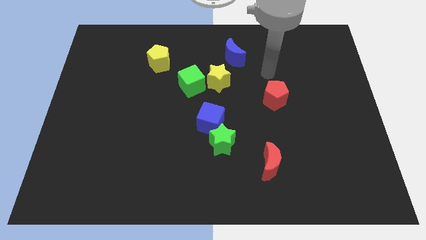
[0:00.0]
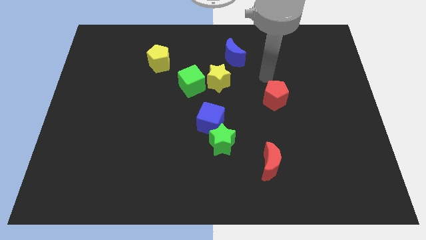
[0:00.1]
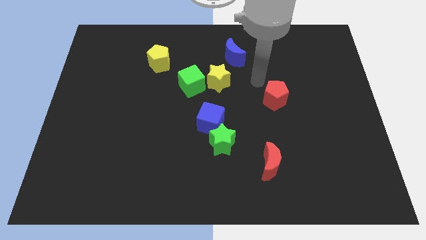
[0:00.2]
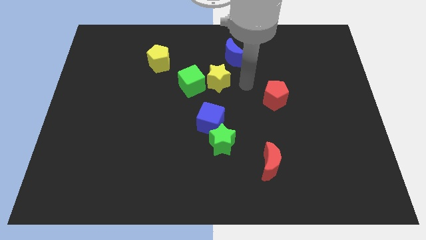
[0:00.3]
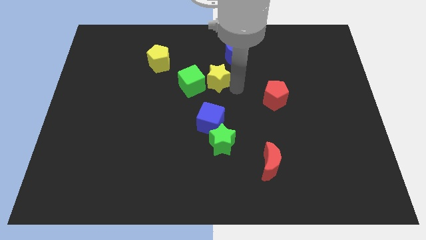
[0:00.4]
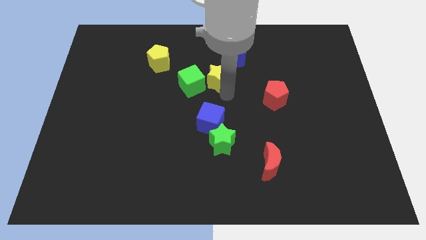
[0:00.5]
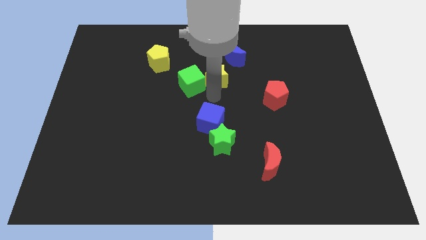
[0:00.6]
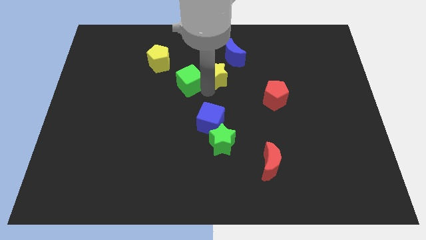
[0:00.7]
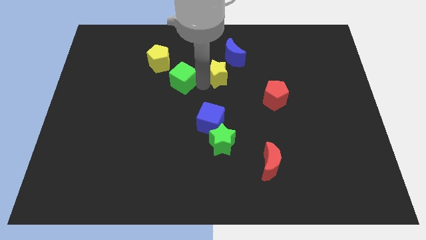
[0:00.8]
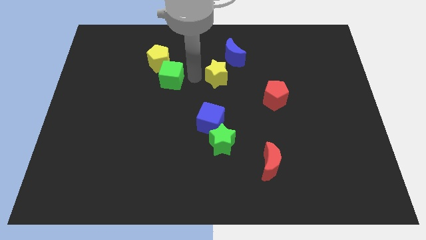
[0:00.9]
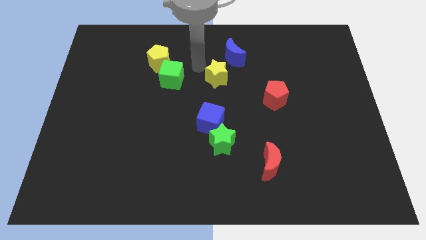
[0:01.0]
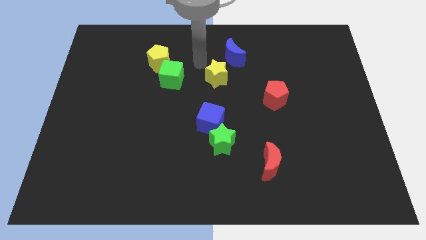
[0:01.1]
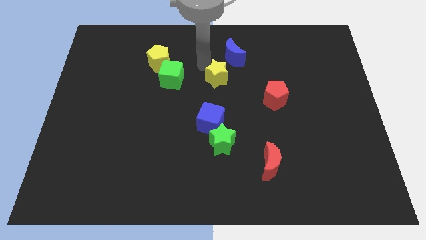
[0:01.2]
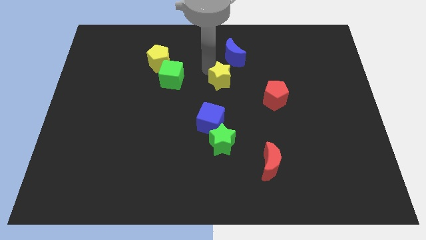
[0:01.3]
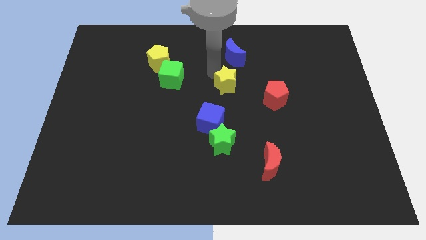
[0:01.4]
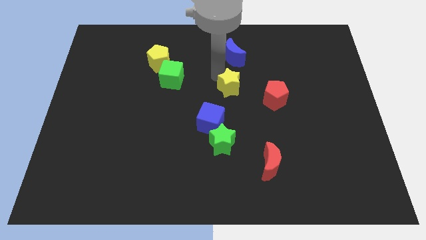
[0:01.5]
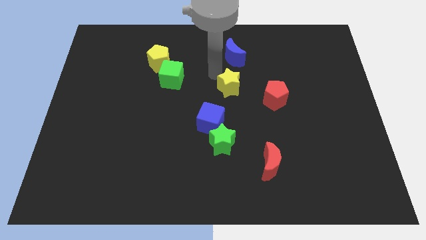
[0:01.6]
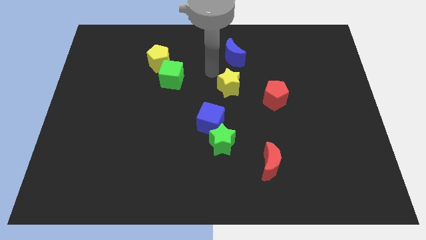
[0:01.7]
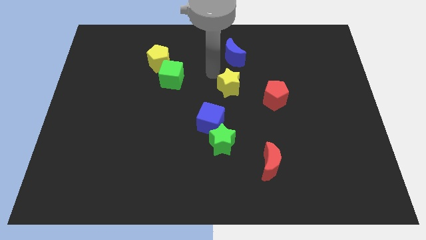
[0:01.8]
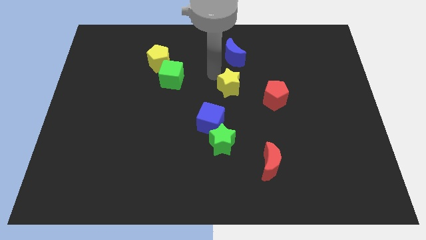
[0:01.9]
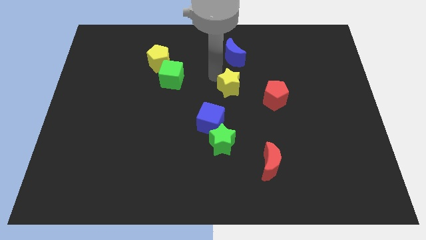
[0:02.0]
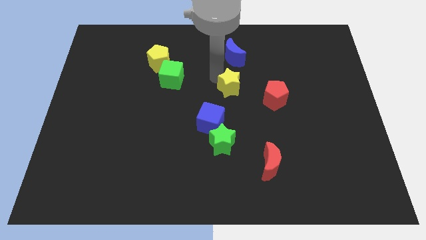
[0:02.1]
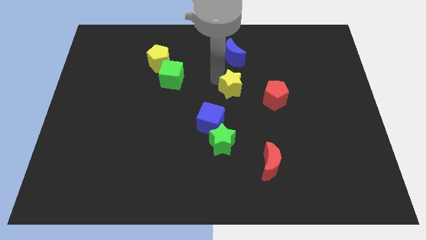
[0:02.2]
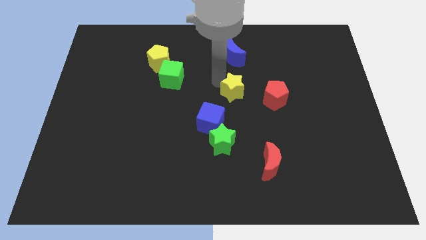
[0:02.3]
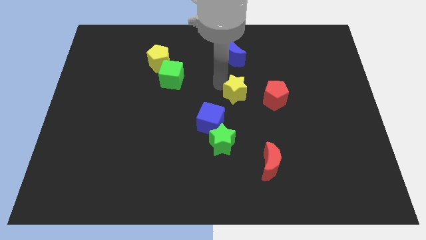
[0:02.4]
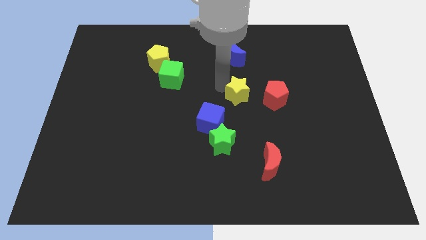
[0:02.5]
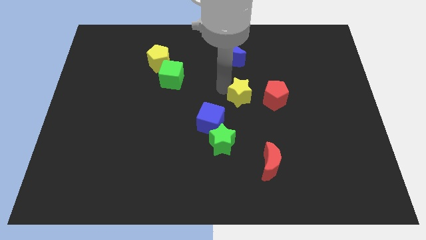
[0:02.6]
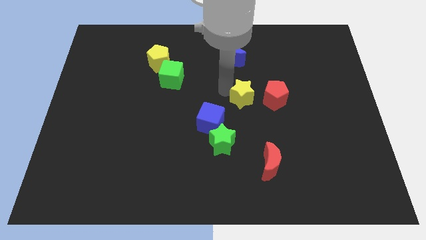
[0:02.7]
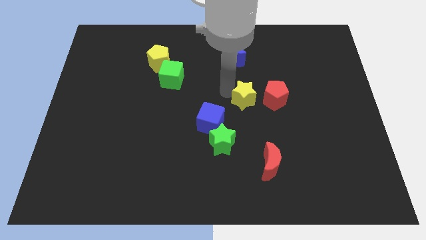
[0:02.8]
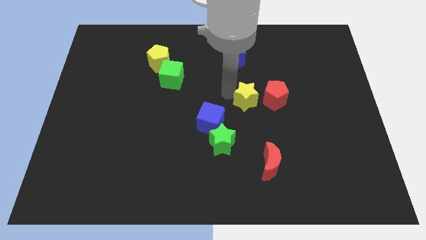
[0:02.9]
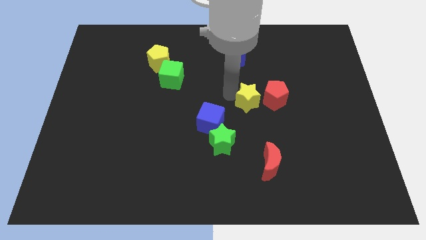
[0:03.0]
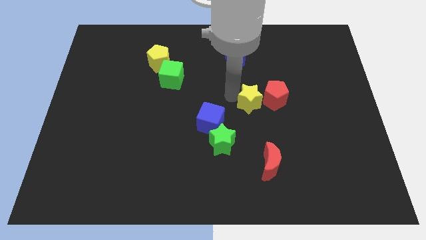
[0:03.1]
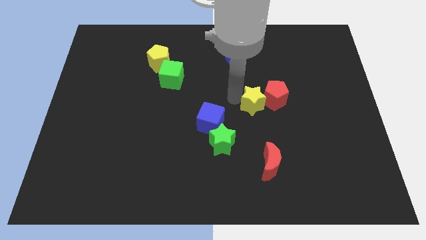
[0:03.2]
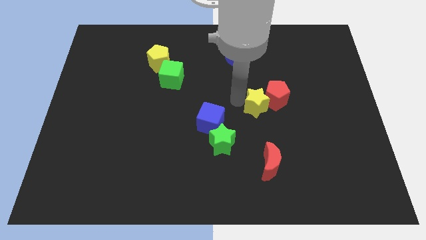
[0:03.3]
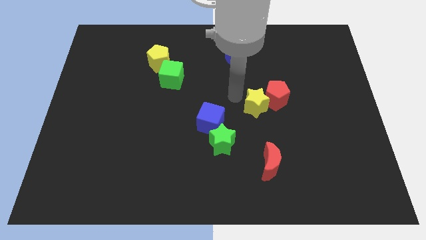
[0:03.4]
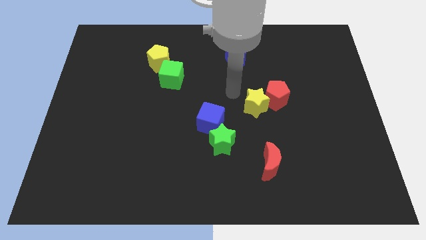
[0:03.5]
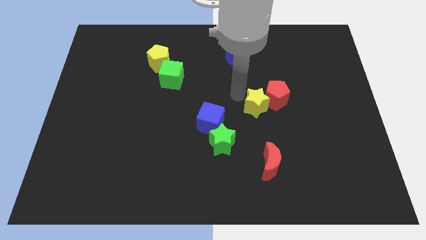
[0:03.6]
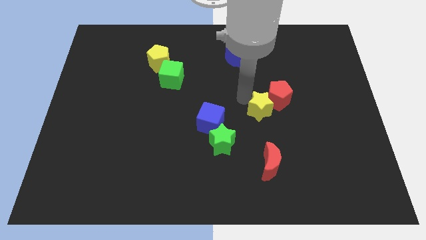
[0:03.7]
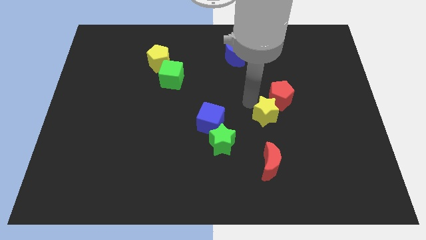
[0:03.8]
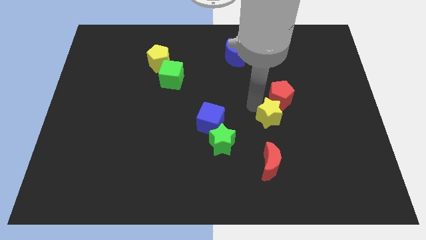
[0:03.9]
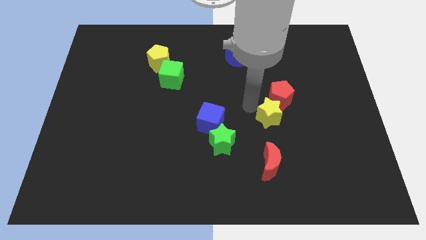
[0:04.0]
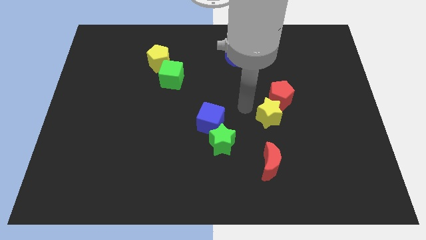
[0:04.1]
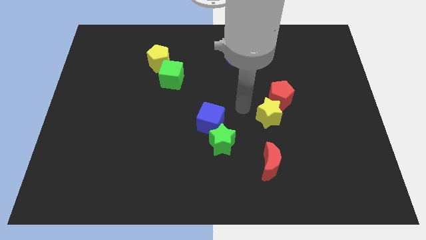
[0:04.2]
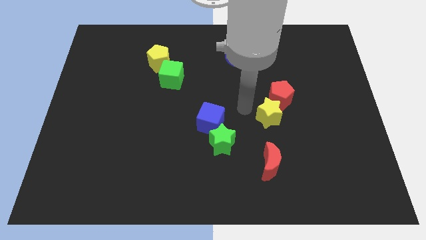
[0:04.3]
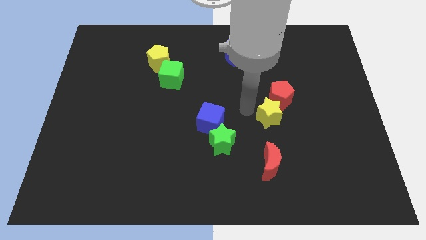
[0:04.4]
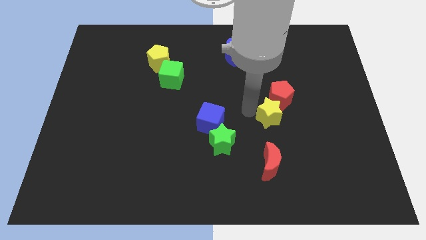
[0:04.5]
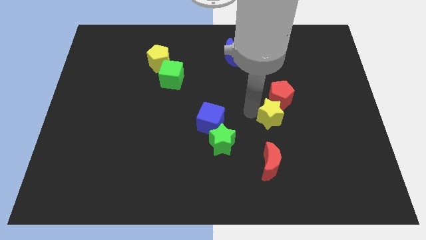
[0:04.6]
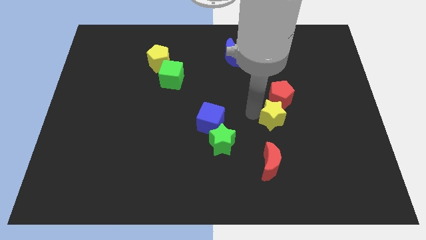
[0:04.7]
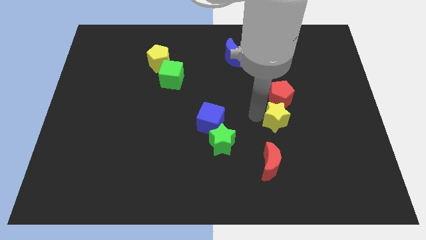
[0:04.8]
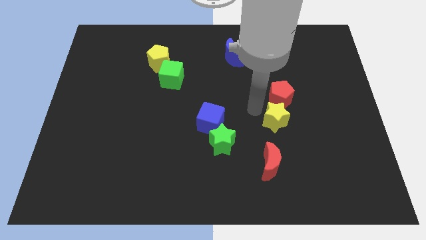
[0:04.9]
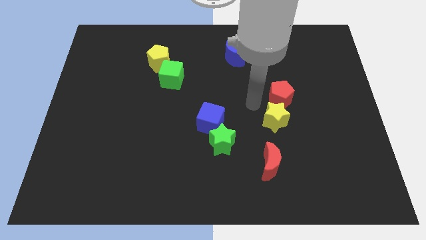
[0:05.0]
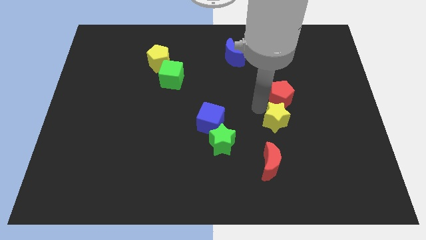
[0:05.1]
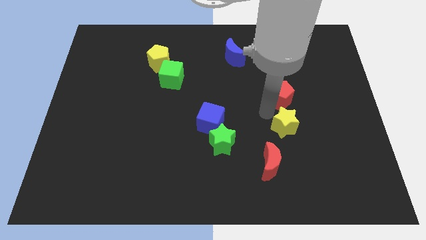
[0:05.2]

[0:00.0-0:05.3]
move the yellow star down and then right

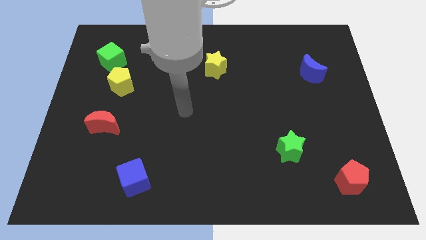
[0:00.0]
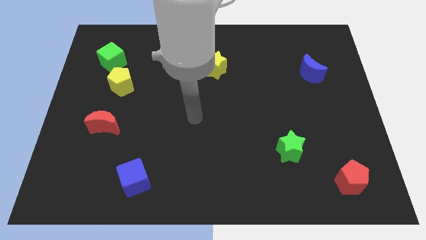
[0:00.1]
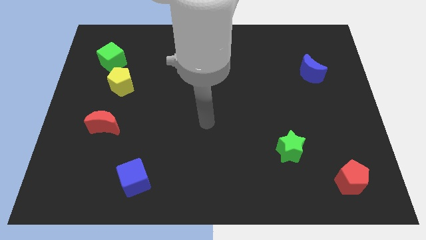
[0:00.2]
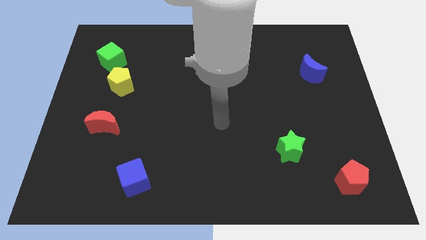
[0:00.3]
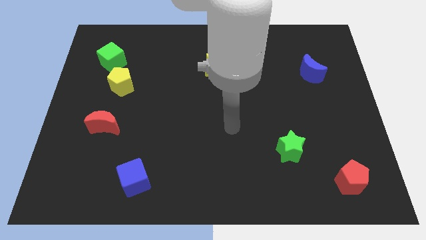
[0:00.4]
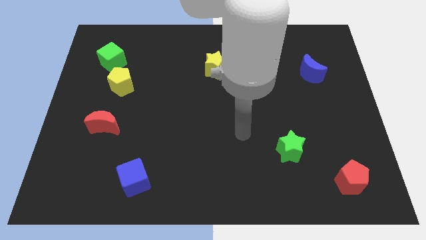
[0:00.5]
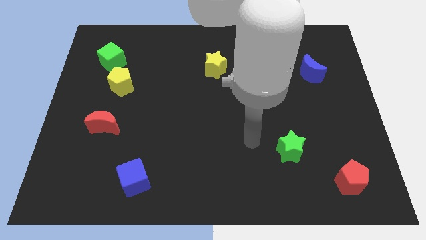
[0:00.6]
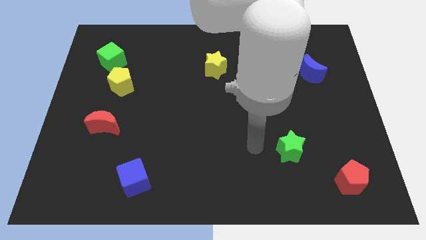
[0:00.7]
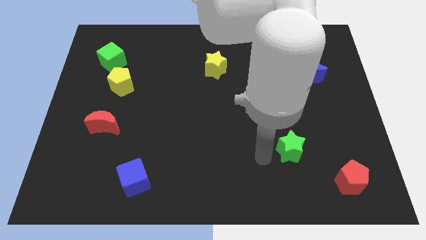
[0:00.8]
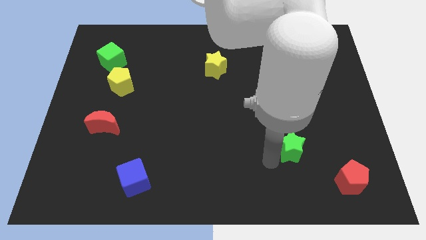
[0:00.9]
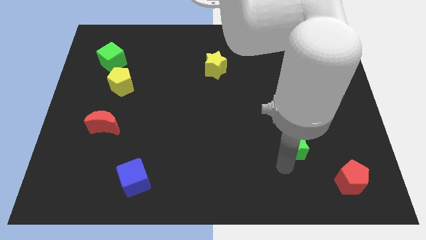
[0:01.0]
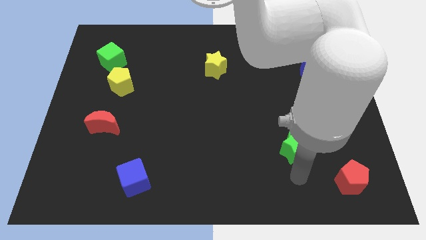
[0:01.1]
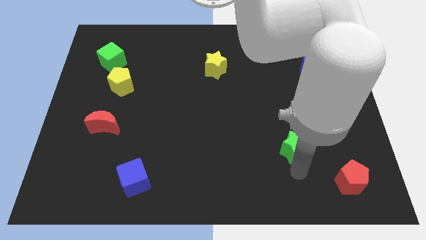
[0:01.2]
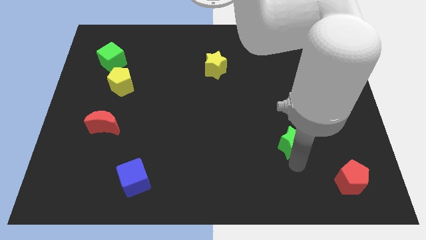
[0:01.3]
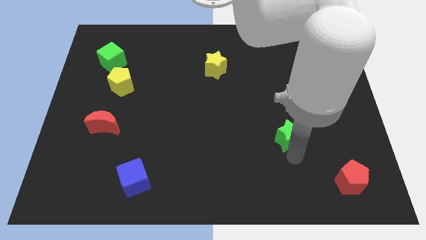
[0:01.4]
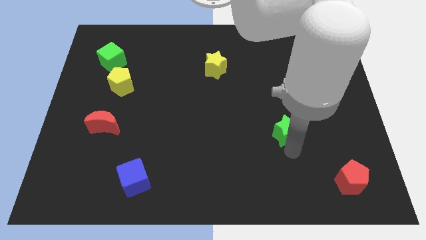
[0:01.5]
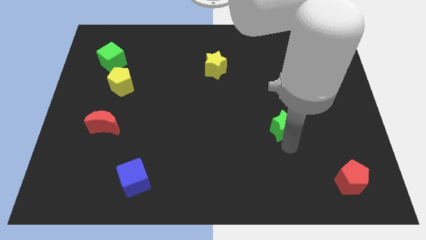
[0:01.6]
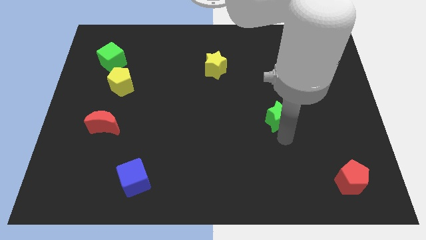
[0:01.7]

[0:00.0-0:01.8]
slide the green star upwards a little

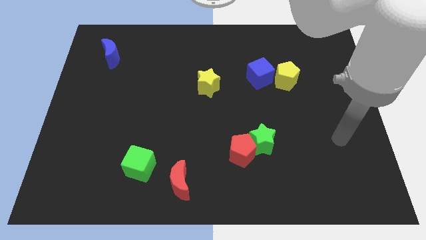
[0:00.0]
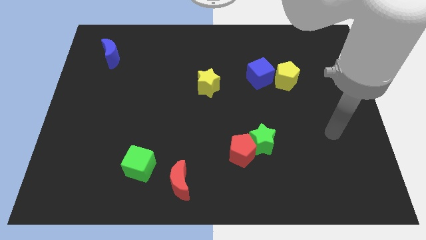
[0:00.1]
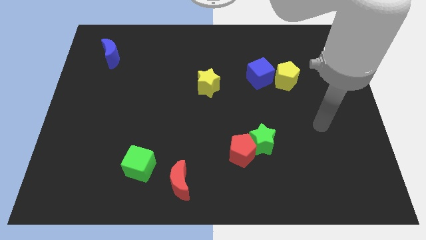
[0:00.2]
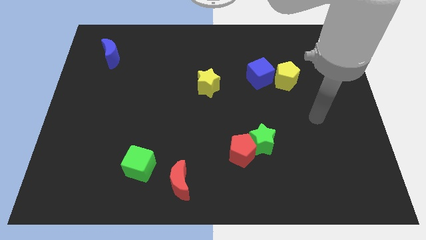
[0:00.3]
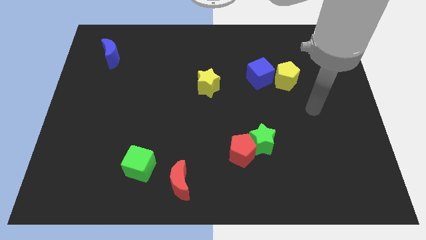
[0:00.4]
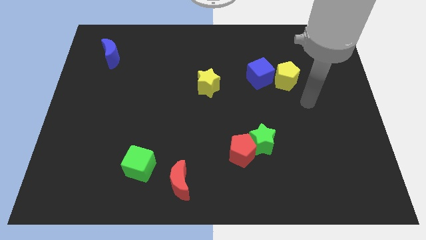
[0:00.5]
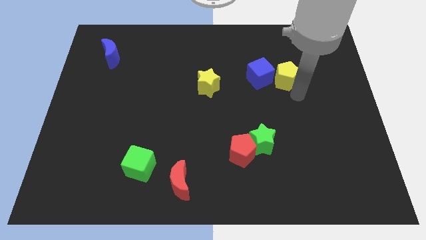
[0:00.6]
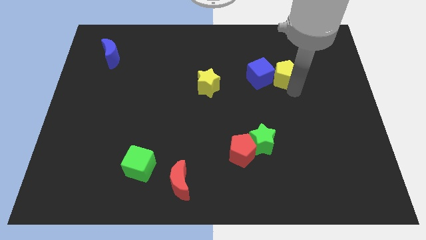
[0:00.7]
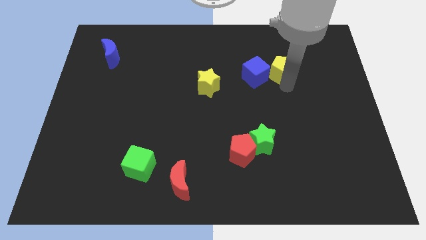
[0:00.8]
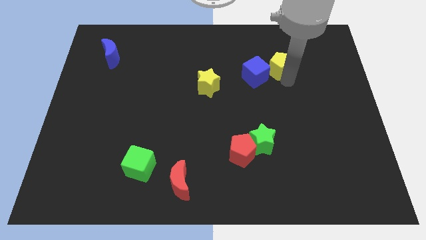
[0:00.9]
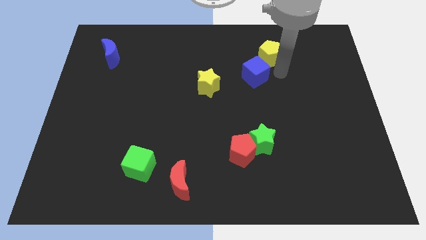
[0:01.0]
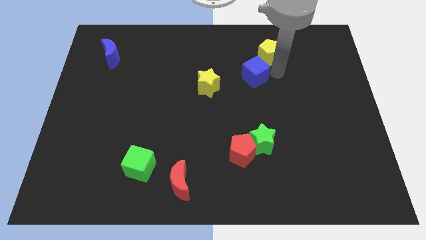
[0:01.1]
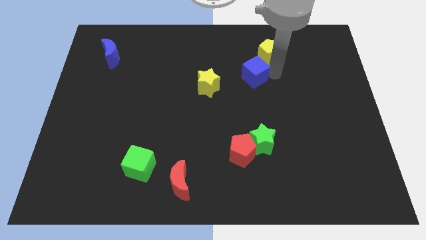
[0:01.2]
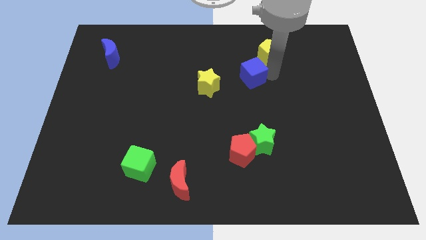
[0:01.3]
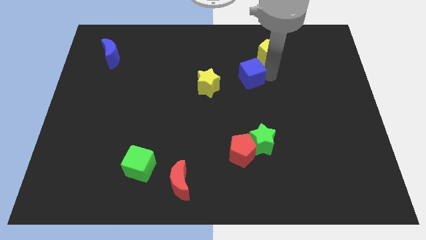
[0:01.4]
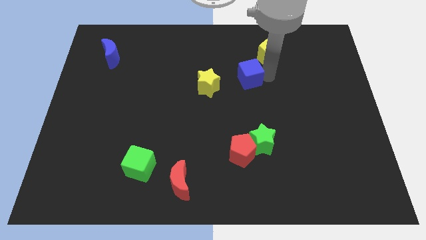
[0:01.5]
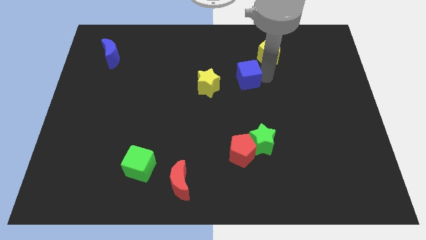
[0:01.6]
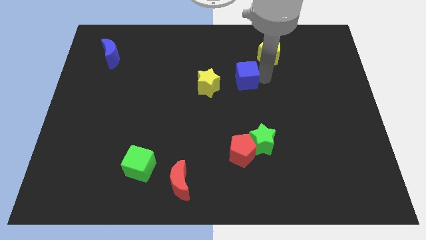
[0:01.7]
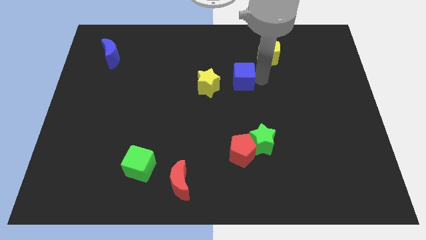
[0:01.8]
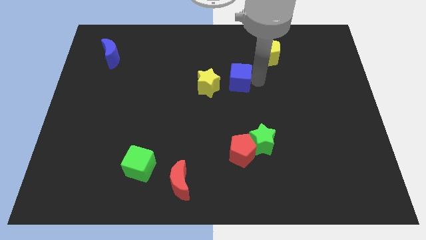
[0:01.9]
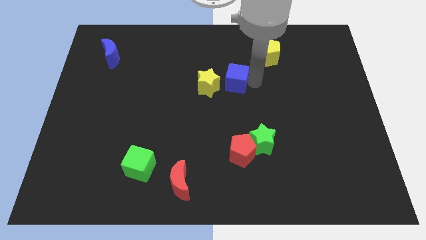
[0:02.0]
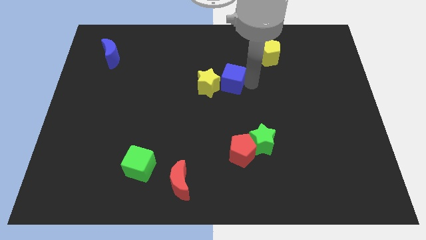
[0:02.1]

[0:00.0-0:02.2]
slide the blue cube a little to the left
